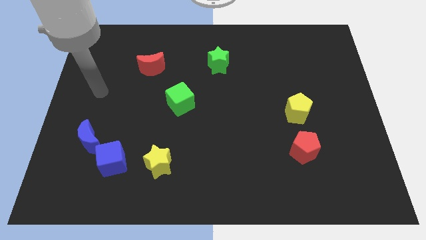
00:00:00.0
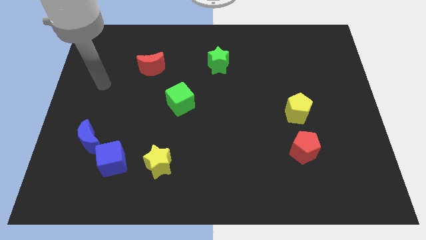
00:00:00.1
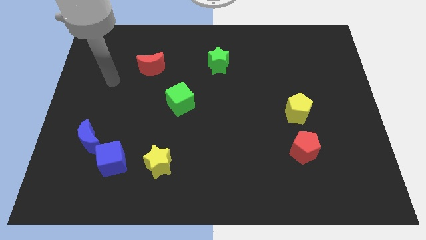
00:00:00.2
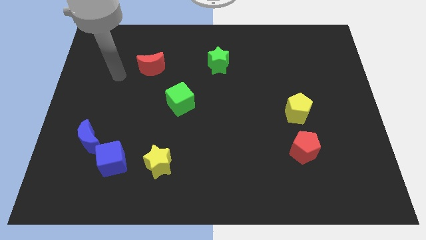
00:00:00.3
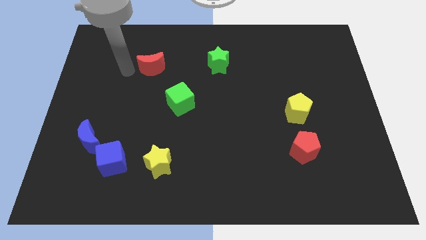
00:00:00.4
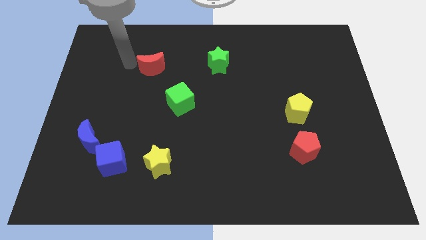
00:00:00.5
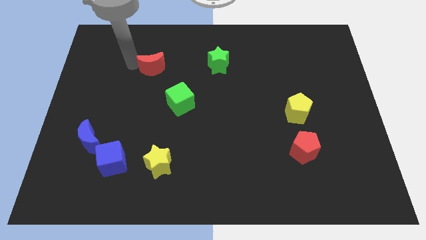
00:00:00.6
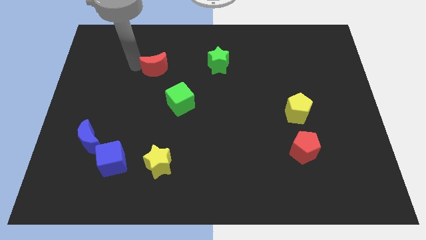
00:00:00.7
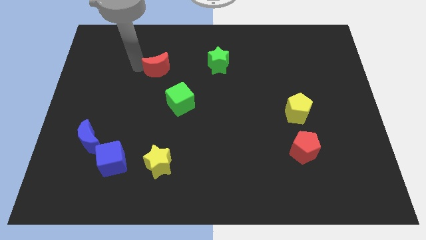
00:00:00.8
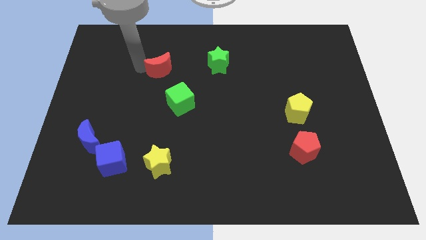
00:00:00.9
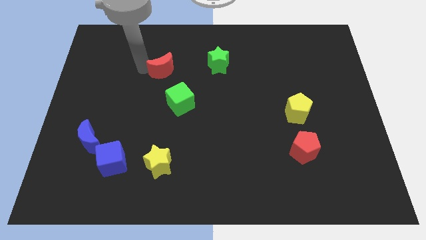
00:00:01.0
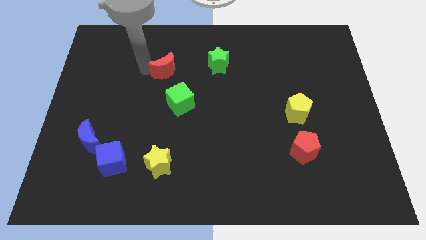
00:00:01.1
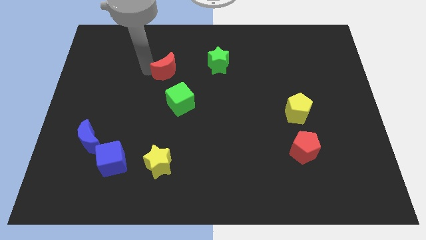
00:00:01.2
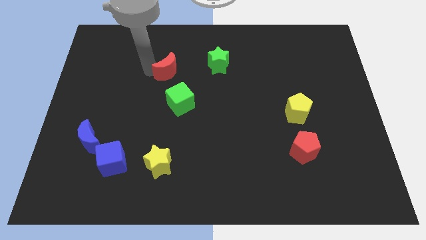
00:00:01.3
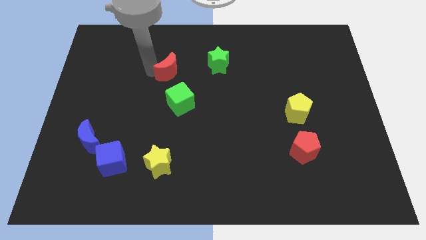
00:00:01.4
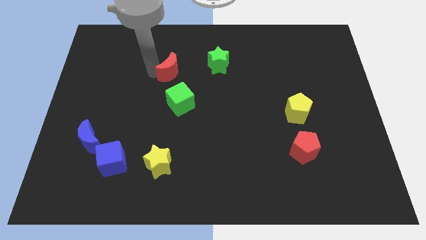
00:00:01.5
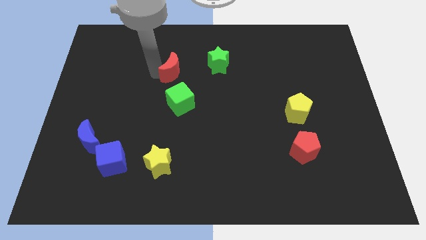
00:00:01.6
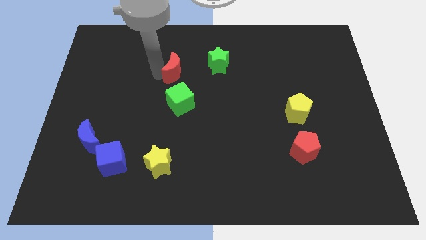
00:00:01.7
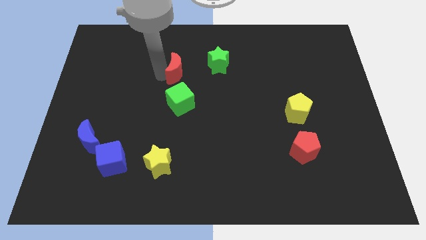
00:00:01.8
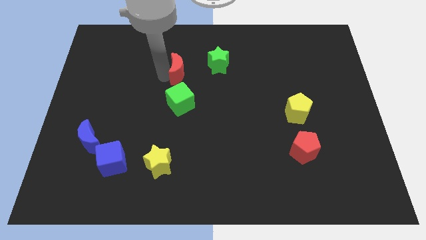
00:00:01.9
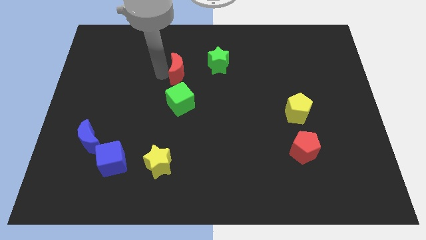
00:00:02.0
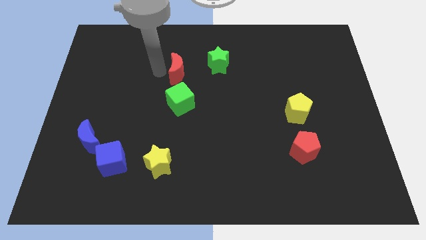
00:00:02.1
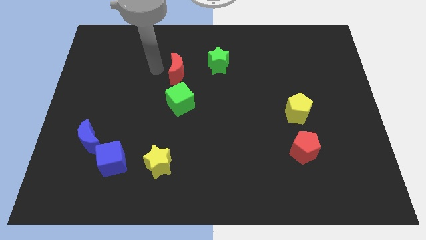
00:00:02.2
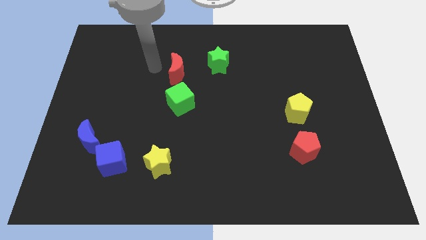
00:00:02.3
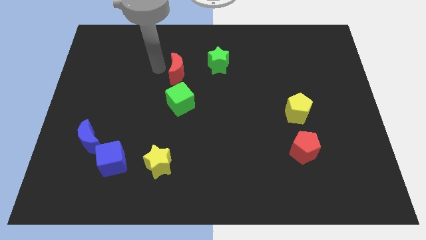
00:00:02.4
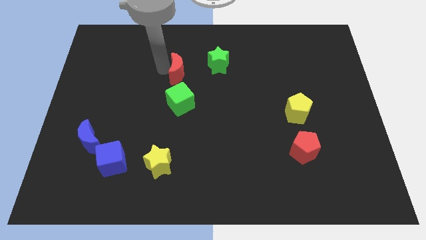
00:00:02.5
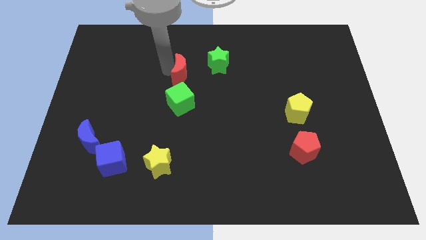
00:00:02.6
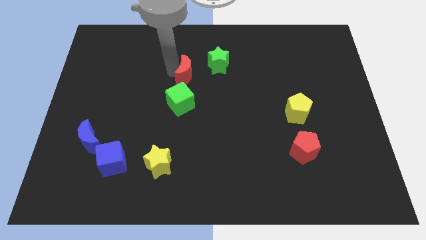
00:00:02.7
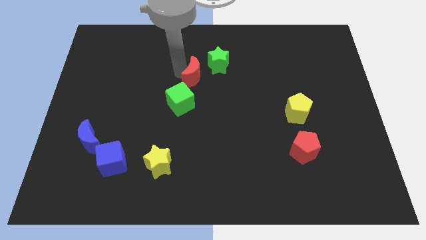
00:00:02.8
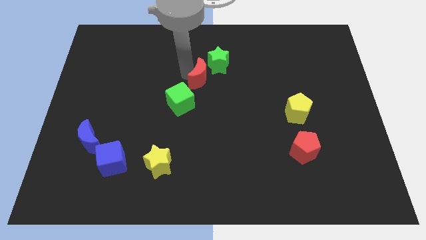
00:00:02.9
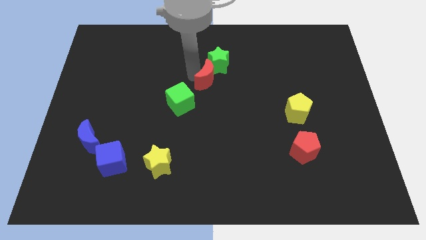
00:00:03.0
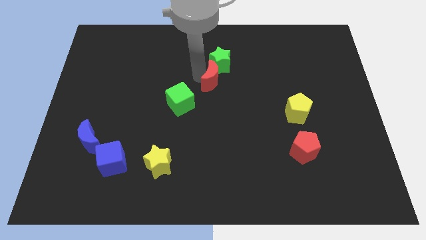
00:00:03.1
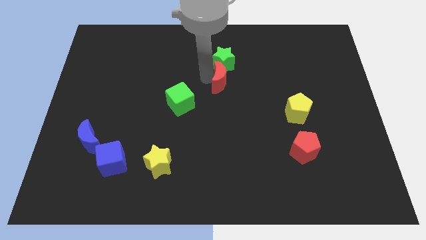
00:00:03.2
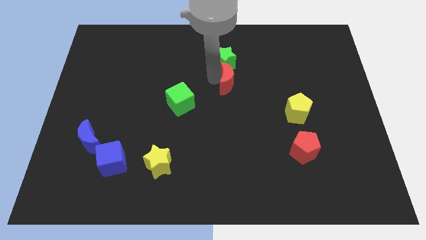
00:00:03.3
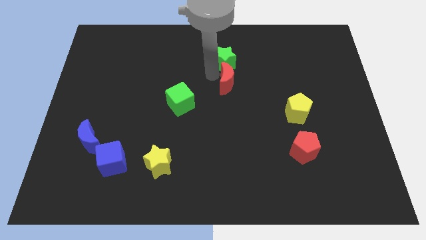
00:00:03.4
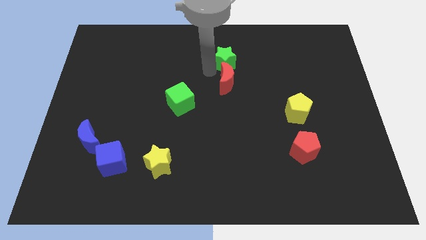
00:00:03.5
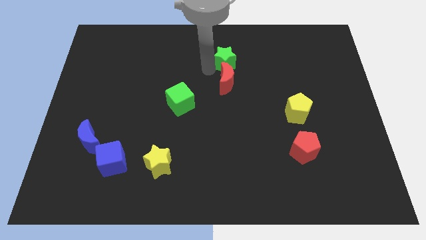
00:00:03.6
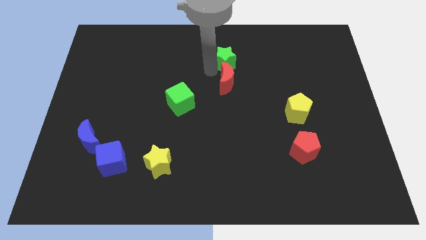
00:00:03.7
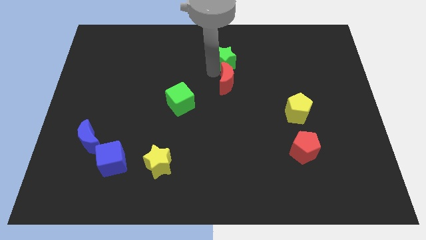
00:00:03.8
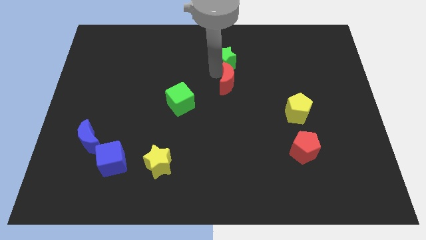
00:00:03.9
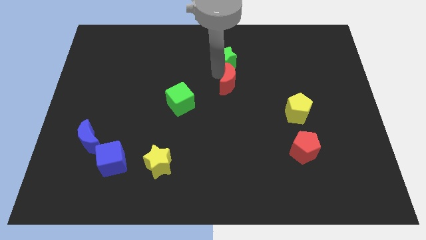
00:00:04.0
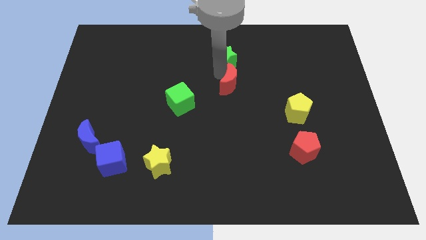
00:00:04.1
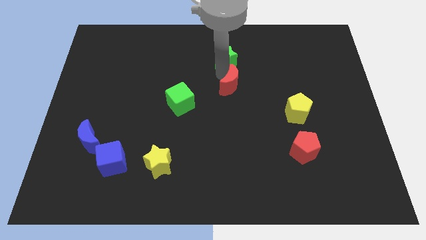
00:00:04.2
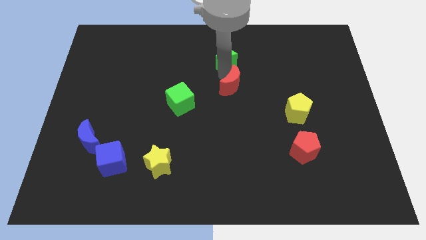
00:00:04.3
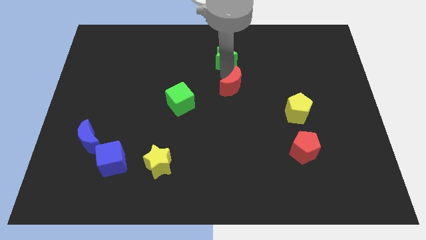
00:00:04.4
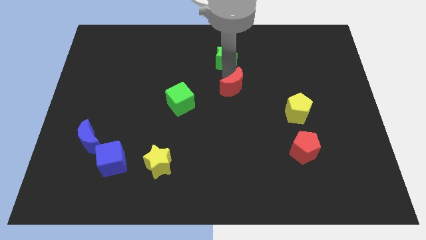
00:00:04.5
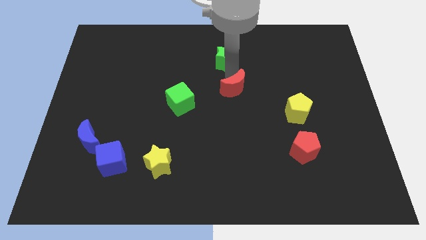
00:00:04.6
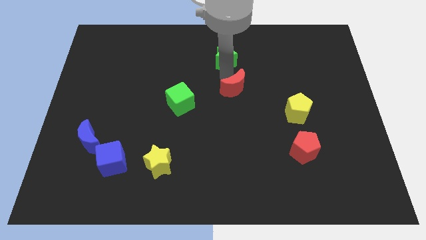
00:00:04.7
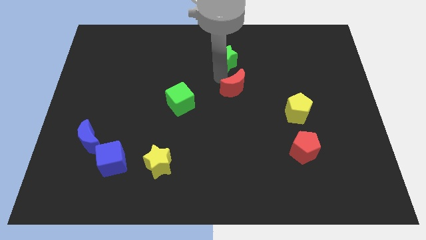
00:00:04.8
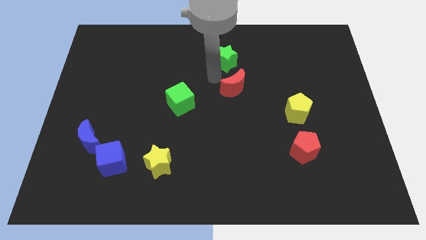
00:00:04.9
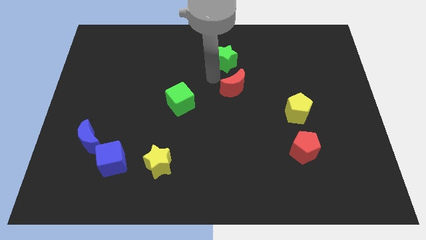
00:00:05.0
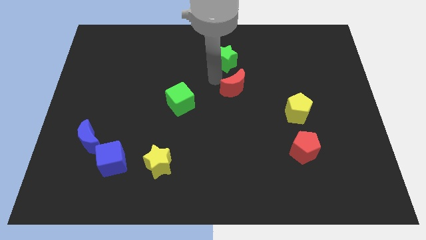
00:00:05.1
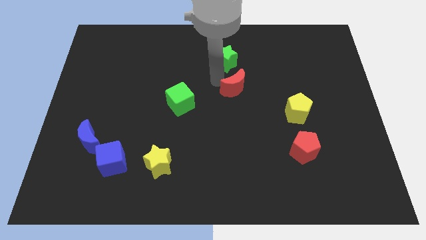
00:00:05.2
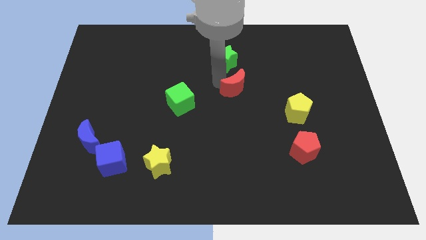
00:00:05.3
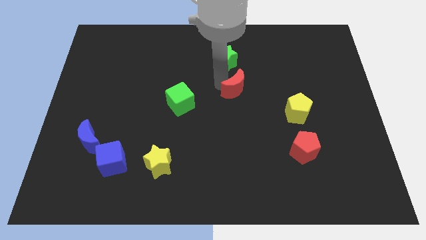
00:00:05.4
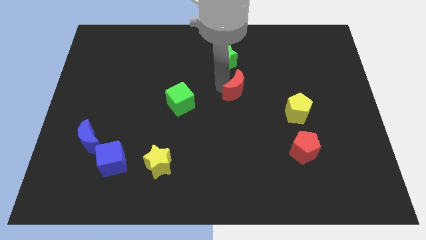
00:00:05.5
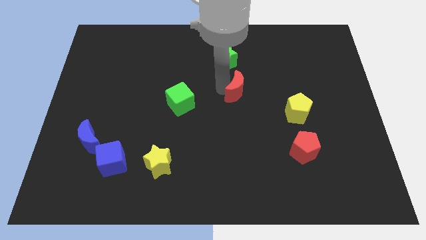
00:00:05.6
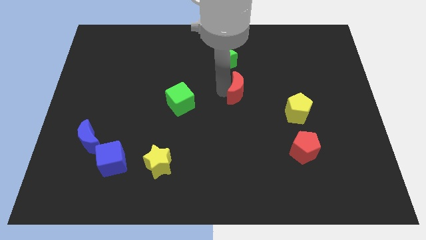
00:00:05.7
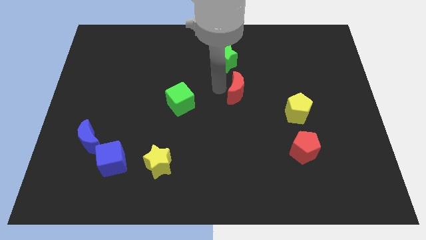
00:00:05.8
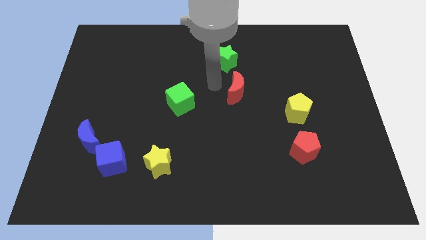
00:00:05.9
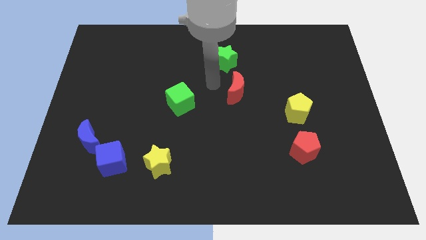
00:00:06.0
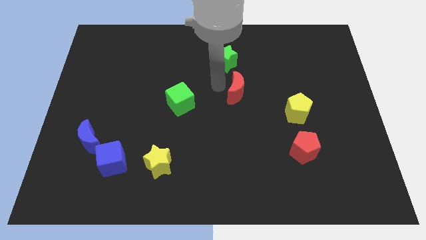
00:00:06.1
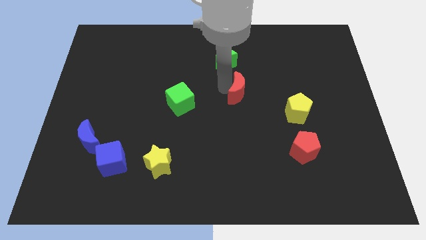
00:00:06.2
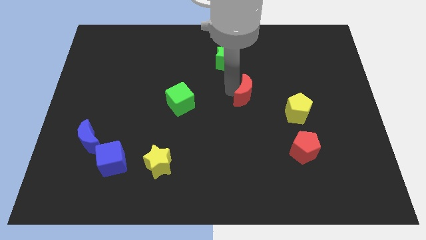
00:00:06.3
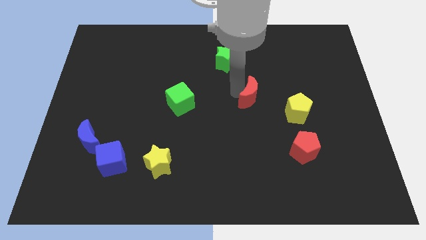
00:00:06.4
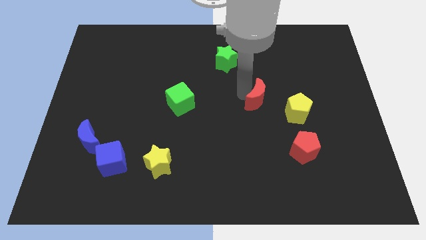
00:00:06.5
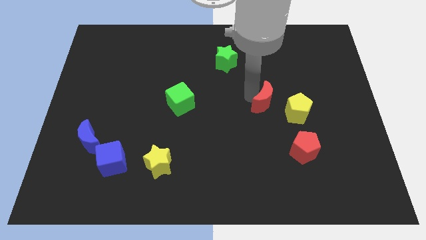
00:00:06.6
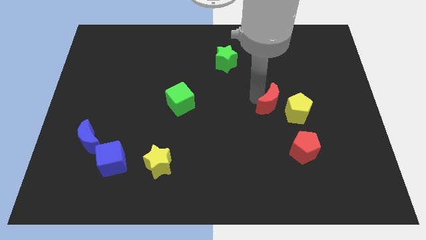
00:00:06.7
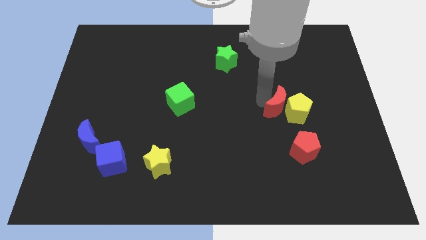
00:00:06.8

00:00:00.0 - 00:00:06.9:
put the red moon close to the yellow pentagon

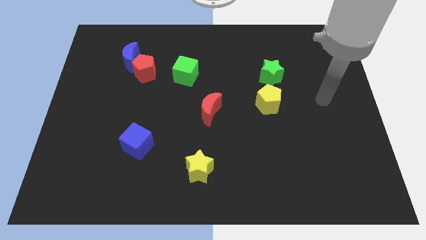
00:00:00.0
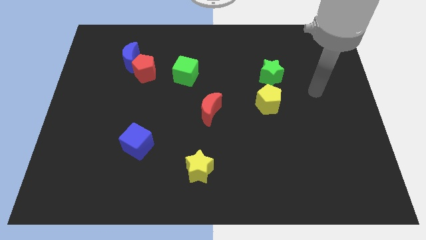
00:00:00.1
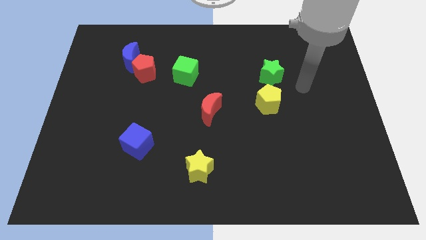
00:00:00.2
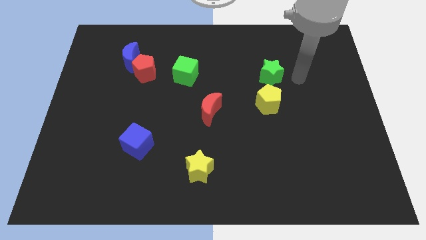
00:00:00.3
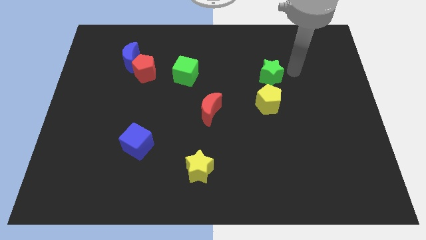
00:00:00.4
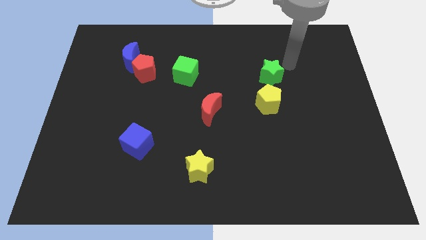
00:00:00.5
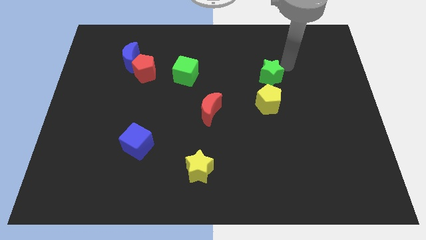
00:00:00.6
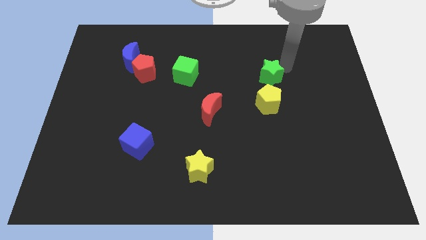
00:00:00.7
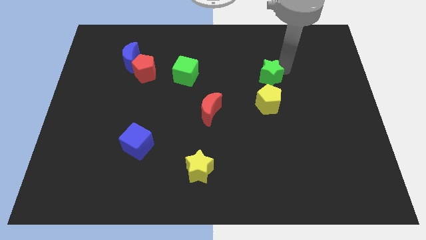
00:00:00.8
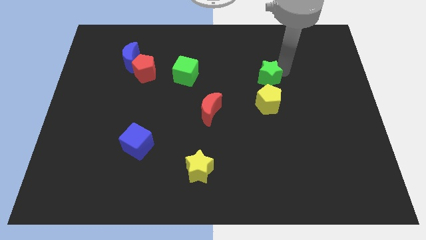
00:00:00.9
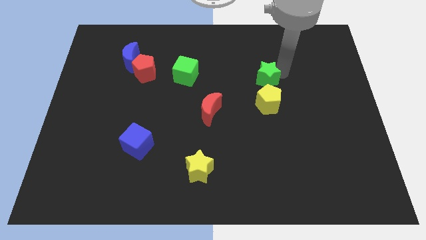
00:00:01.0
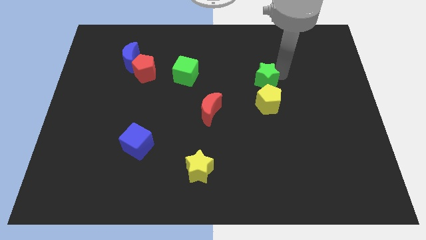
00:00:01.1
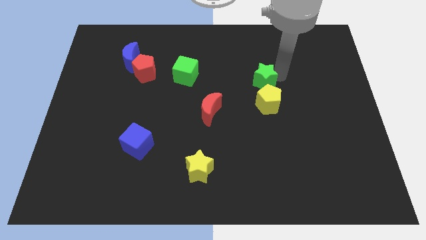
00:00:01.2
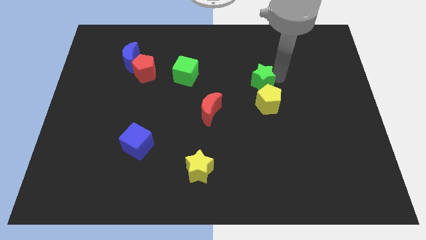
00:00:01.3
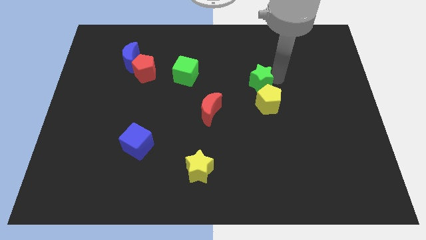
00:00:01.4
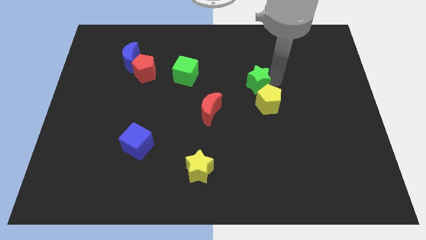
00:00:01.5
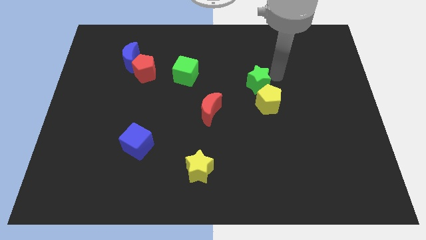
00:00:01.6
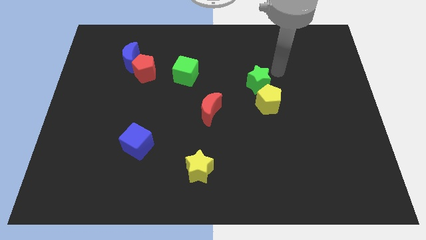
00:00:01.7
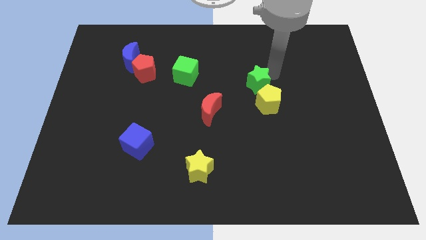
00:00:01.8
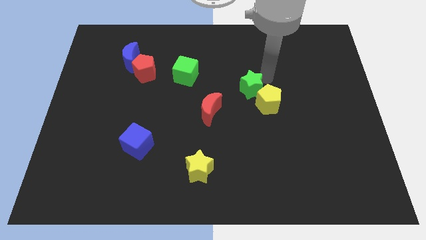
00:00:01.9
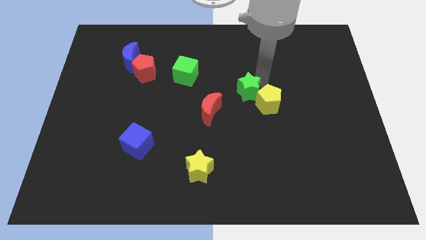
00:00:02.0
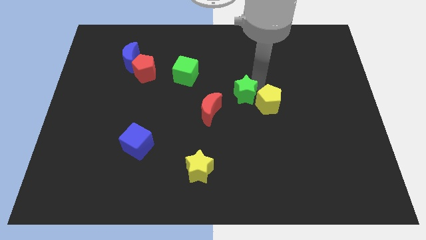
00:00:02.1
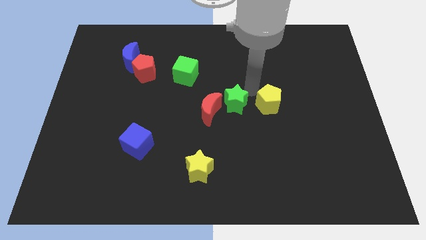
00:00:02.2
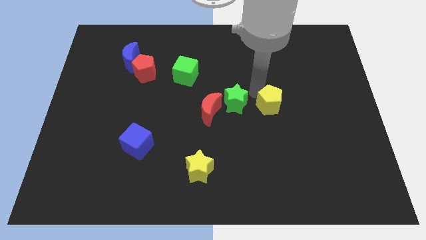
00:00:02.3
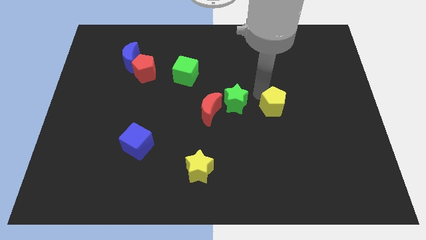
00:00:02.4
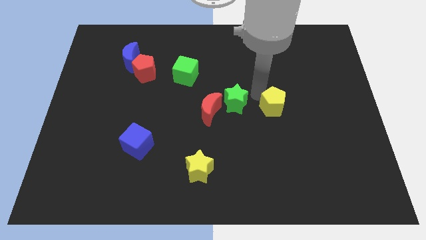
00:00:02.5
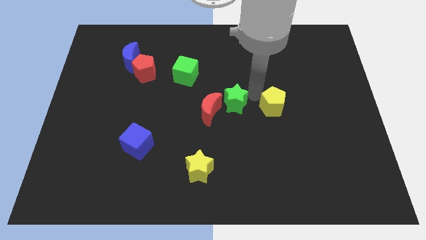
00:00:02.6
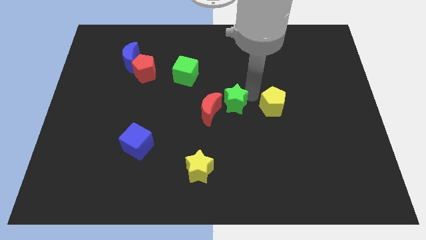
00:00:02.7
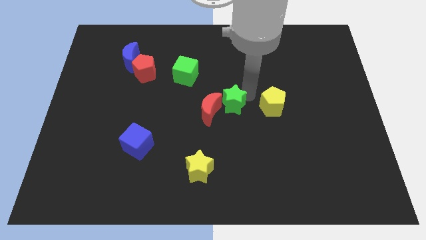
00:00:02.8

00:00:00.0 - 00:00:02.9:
slide the green star to the red moon
